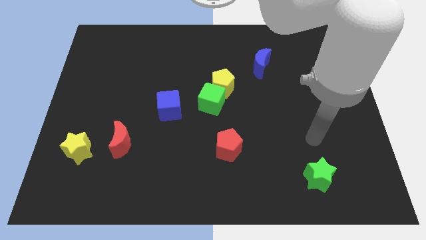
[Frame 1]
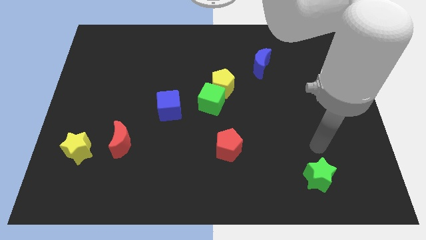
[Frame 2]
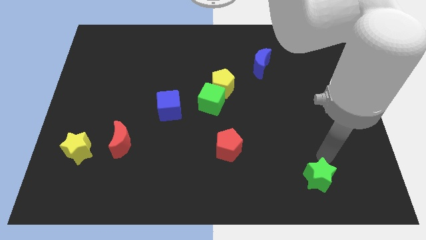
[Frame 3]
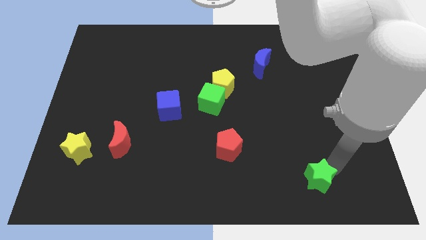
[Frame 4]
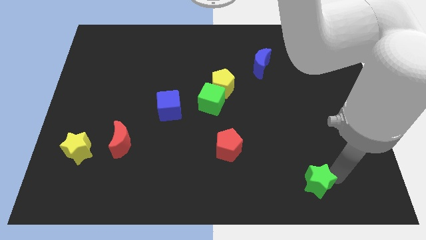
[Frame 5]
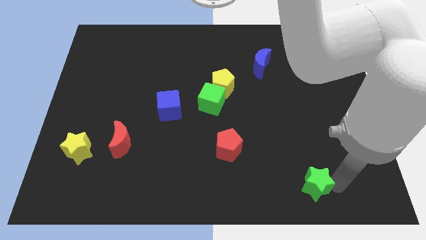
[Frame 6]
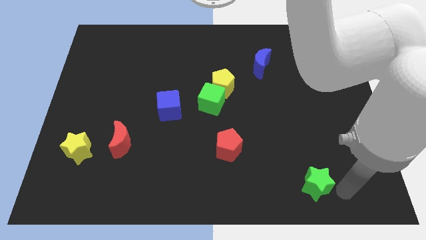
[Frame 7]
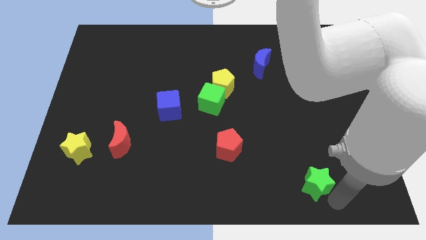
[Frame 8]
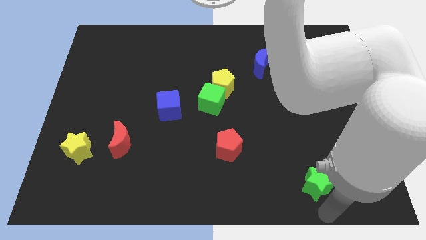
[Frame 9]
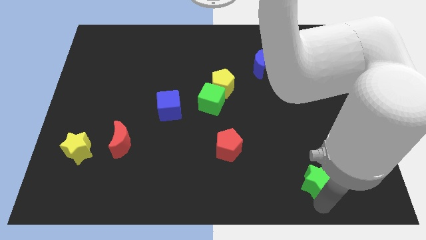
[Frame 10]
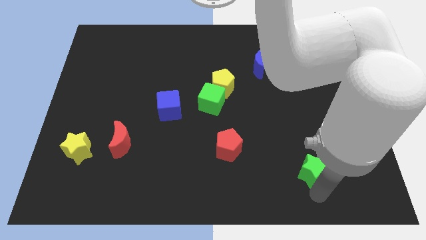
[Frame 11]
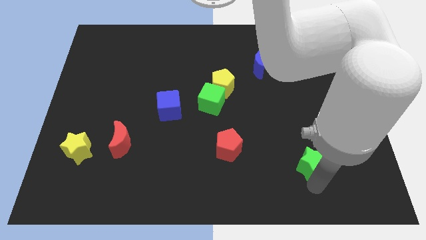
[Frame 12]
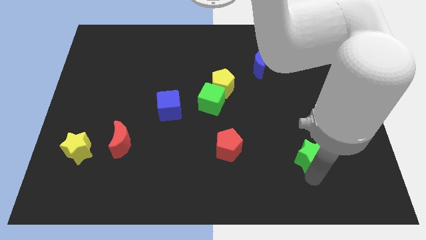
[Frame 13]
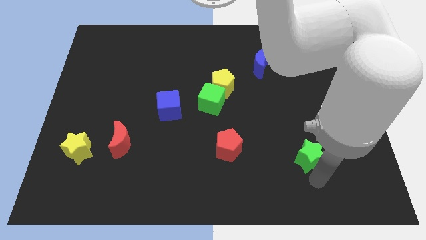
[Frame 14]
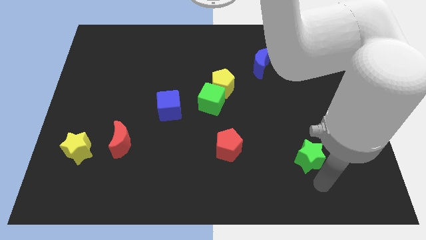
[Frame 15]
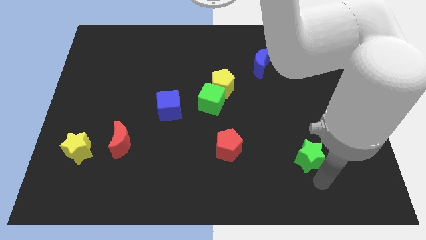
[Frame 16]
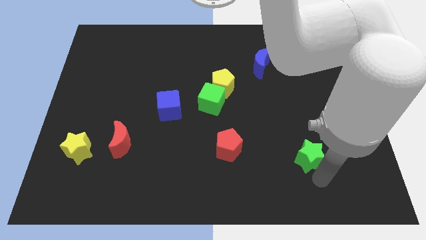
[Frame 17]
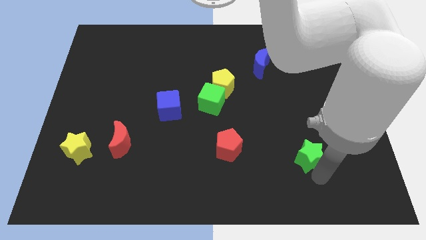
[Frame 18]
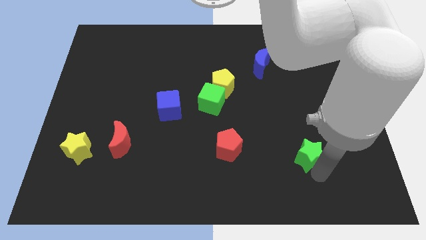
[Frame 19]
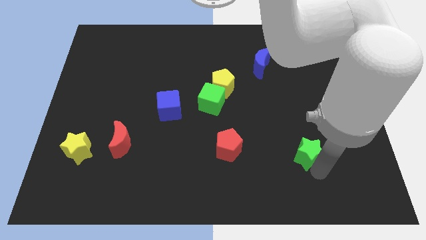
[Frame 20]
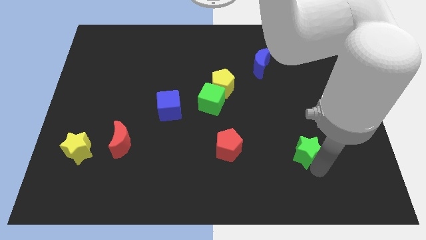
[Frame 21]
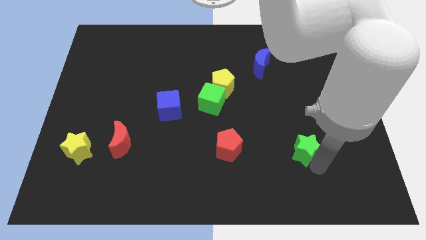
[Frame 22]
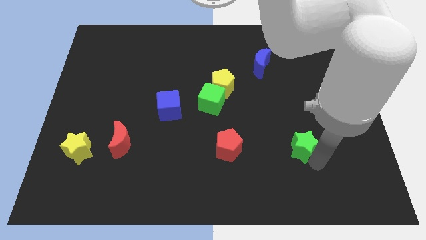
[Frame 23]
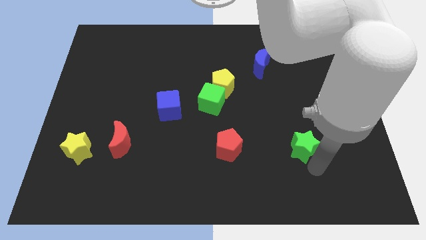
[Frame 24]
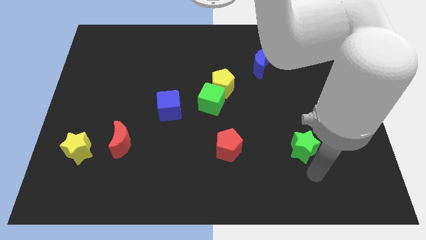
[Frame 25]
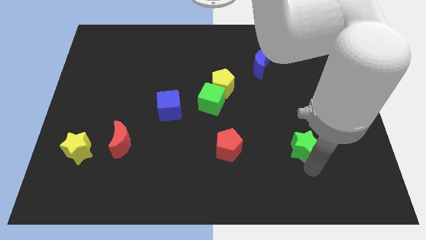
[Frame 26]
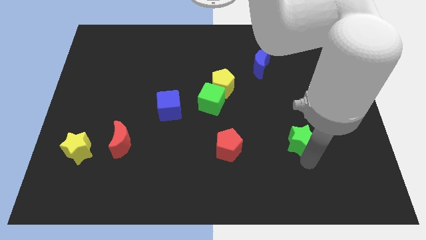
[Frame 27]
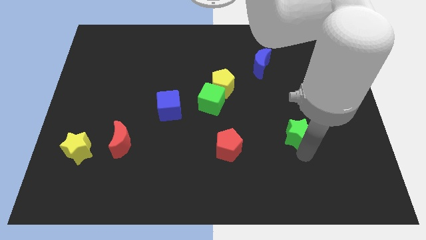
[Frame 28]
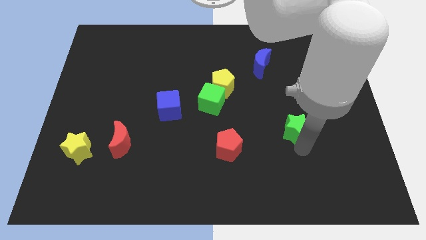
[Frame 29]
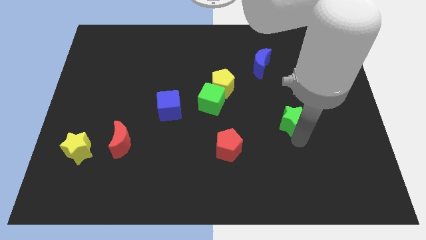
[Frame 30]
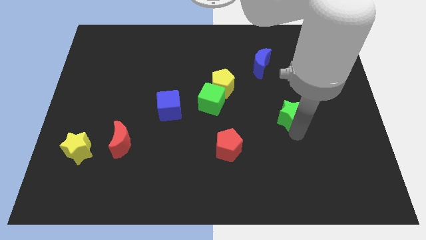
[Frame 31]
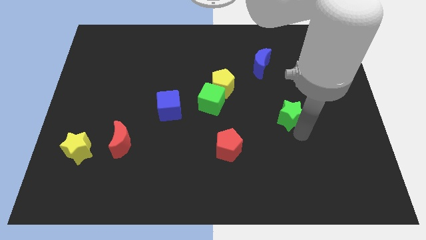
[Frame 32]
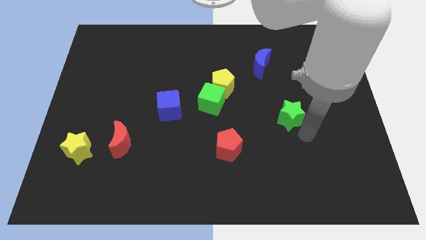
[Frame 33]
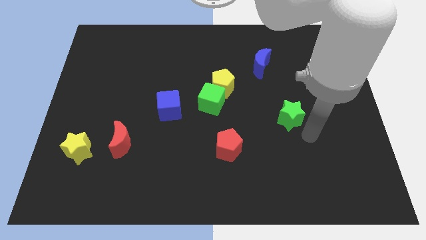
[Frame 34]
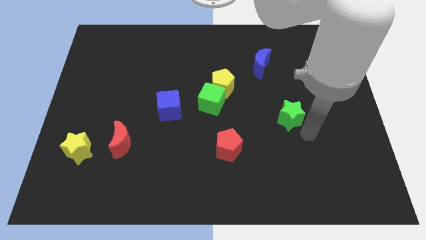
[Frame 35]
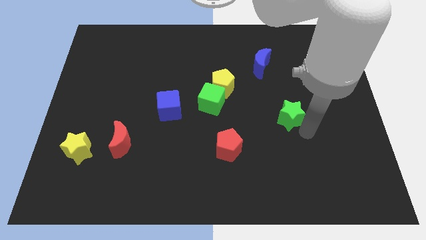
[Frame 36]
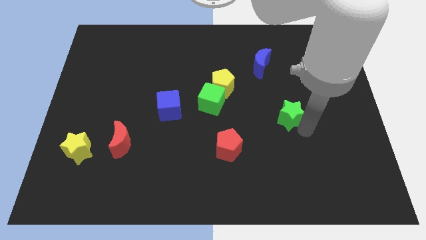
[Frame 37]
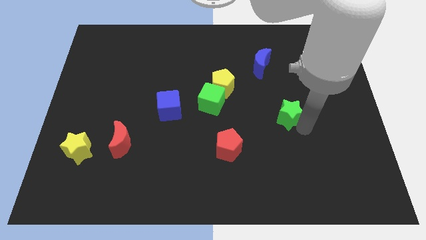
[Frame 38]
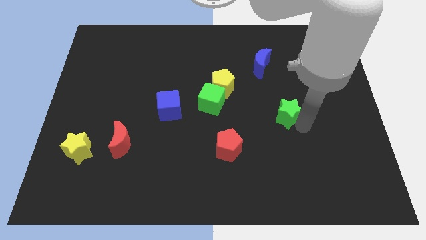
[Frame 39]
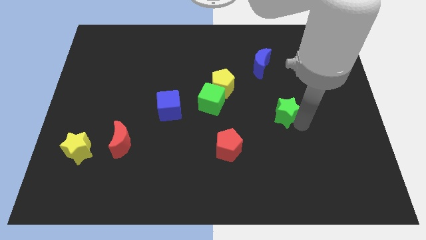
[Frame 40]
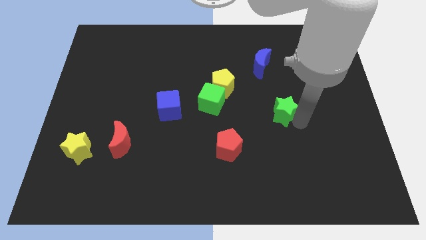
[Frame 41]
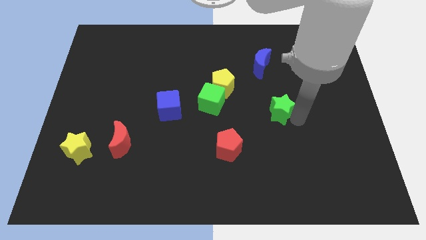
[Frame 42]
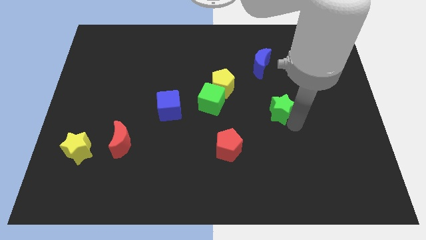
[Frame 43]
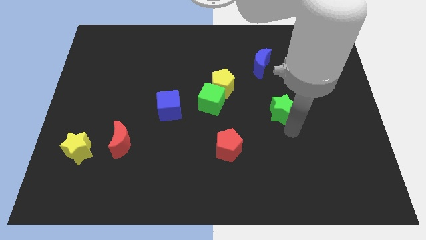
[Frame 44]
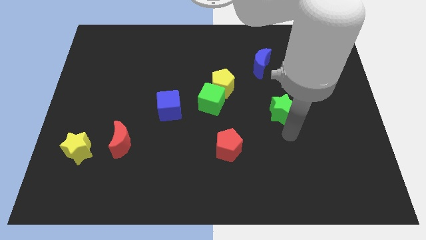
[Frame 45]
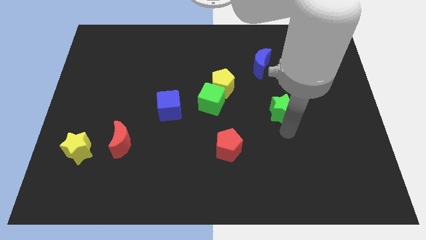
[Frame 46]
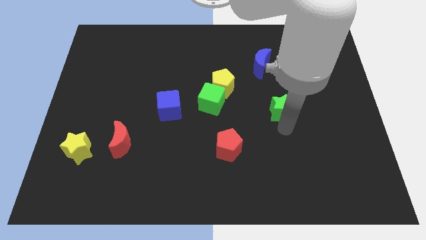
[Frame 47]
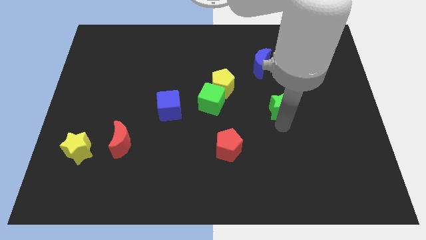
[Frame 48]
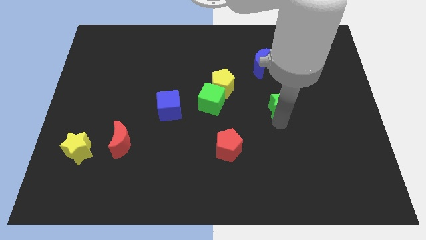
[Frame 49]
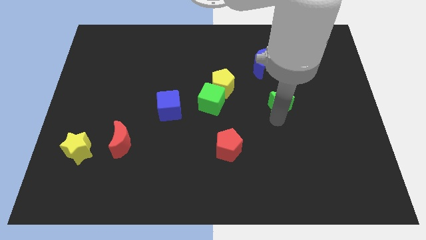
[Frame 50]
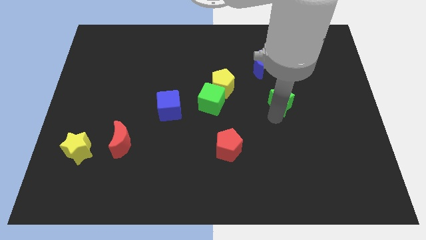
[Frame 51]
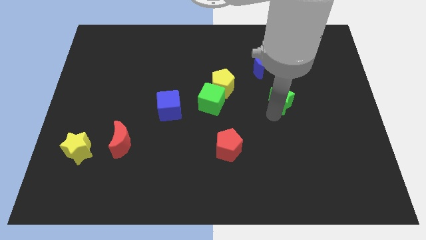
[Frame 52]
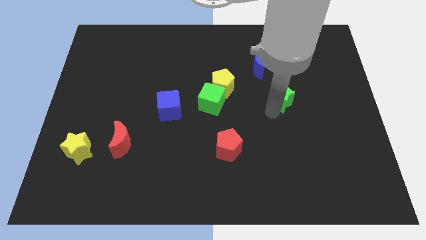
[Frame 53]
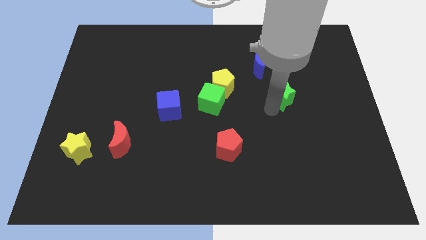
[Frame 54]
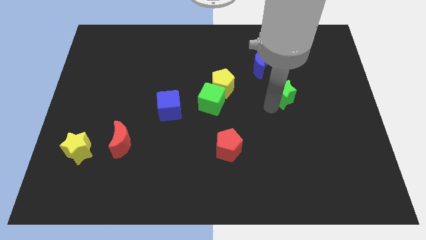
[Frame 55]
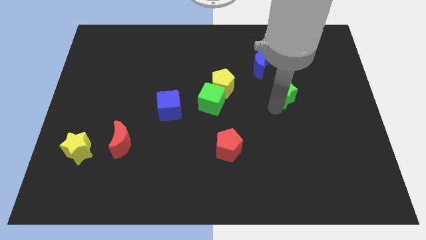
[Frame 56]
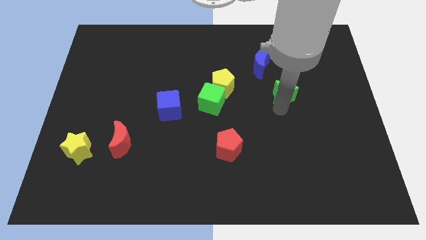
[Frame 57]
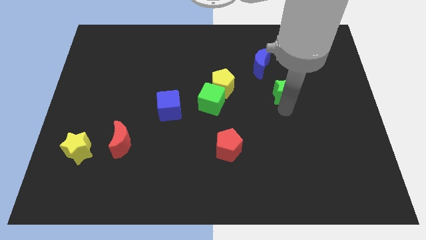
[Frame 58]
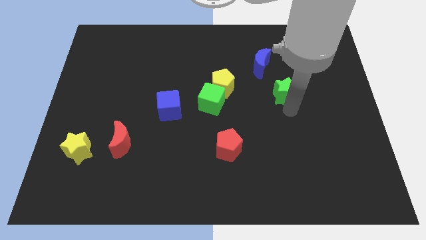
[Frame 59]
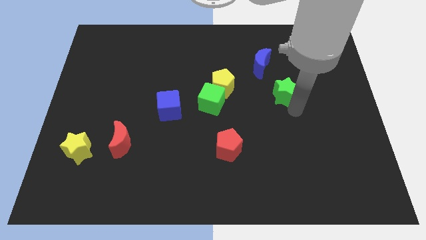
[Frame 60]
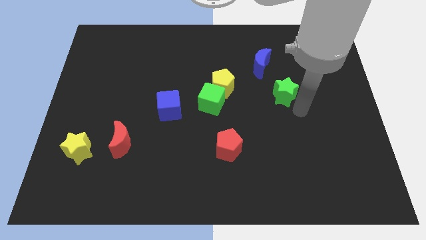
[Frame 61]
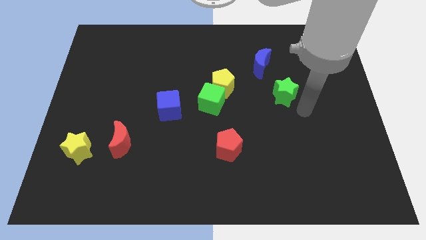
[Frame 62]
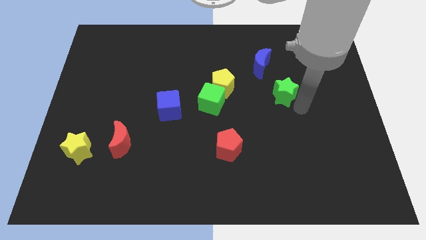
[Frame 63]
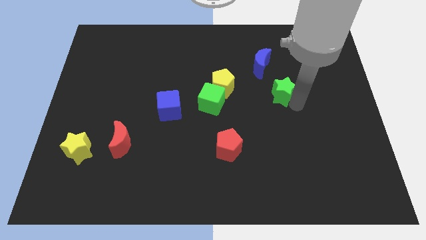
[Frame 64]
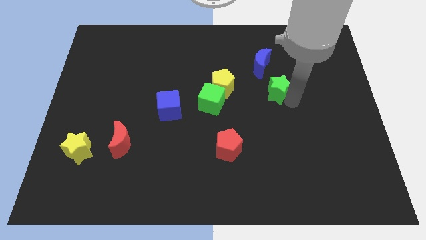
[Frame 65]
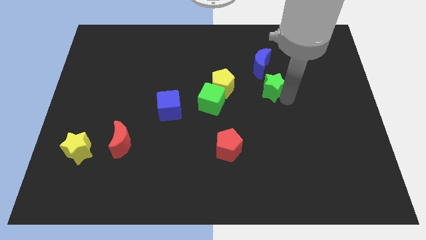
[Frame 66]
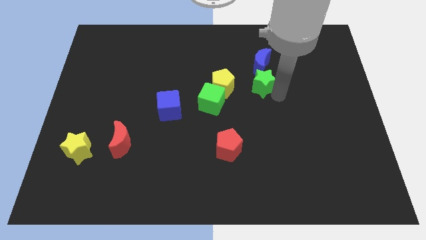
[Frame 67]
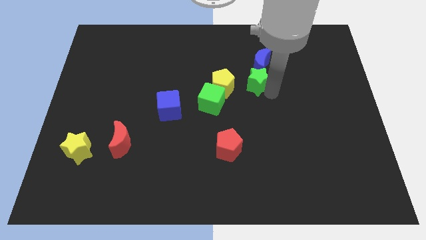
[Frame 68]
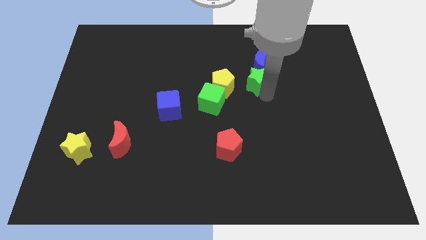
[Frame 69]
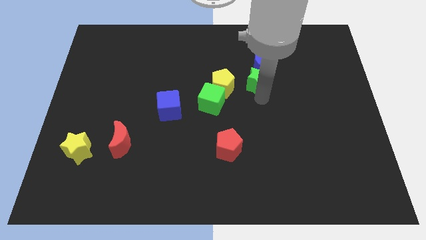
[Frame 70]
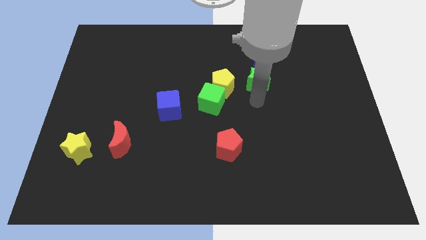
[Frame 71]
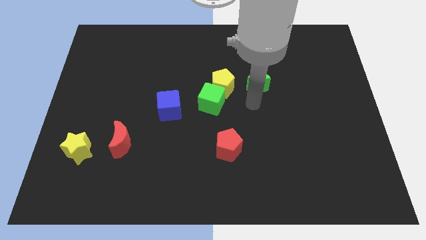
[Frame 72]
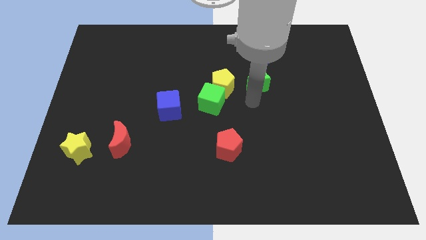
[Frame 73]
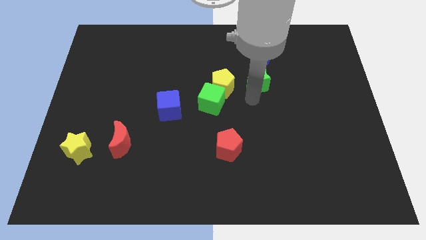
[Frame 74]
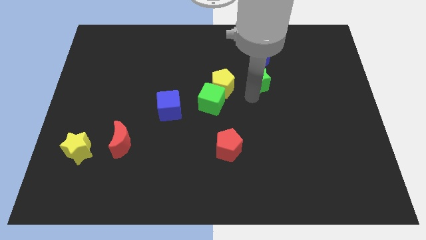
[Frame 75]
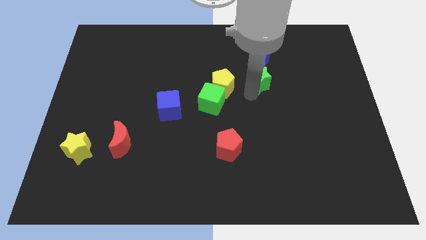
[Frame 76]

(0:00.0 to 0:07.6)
put the green star to the blue moon

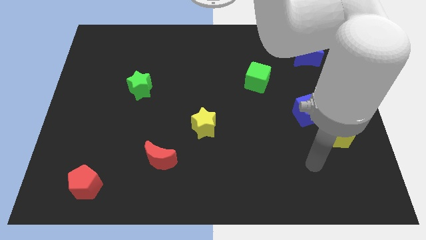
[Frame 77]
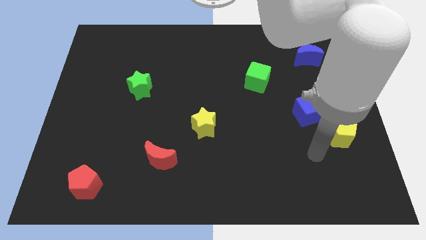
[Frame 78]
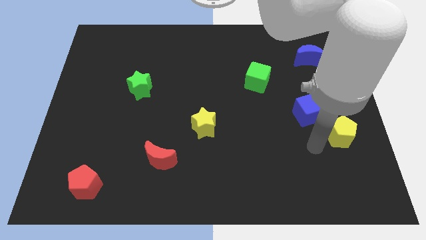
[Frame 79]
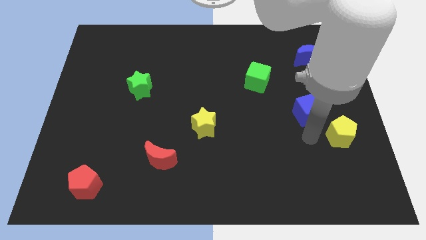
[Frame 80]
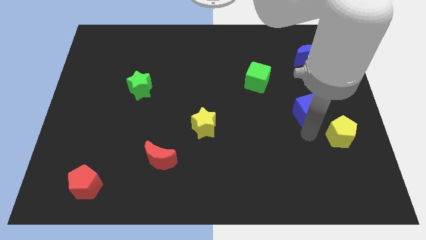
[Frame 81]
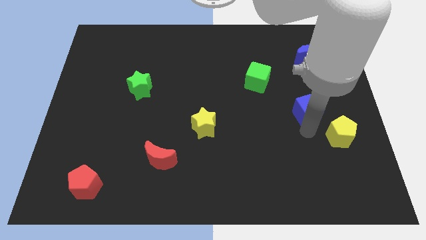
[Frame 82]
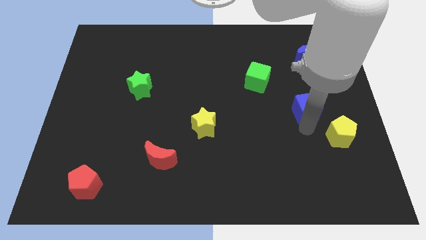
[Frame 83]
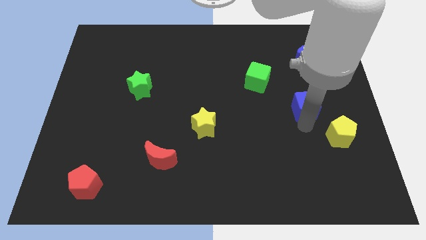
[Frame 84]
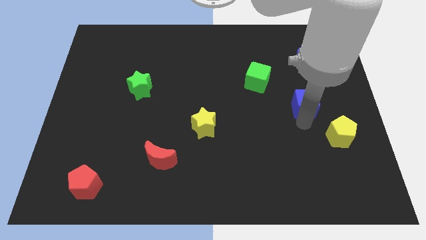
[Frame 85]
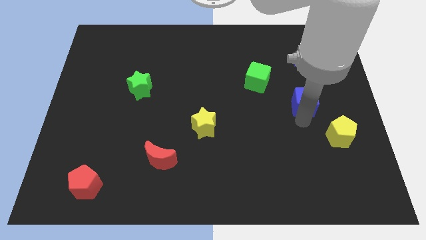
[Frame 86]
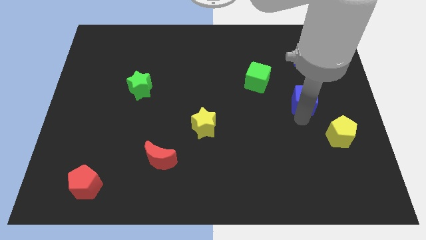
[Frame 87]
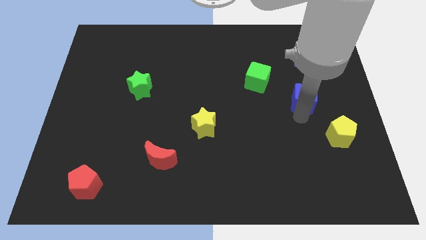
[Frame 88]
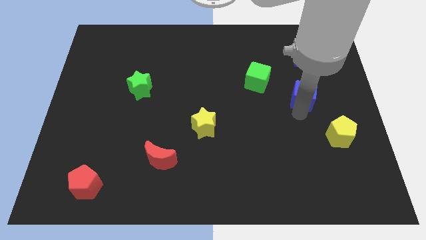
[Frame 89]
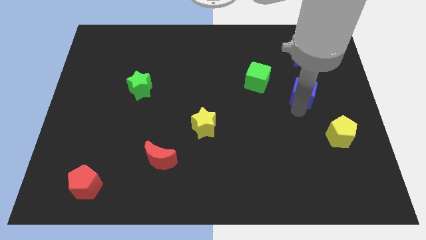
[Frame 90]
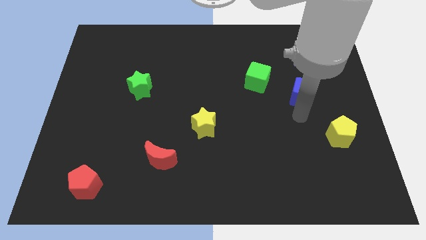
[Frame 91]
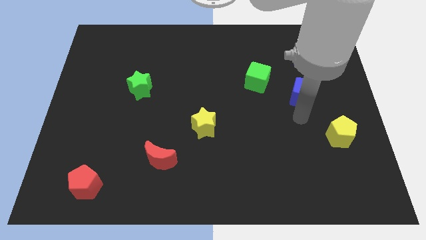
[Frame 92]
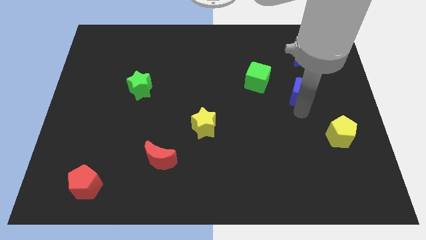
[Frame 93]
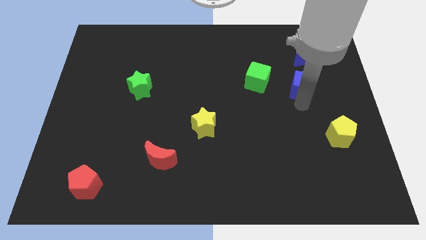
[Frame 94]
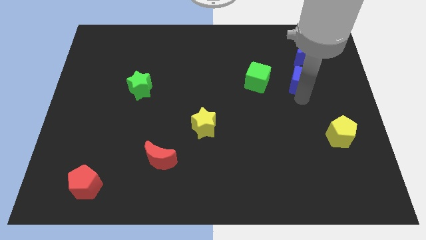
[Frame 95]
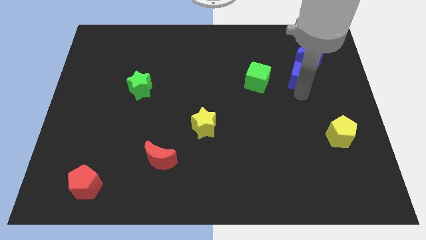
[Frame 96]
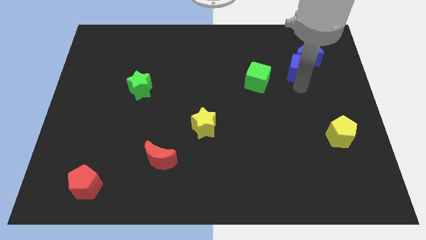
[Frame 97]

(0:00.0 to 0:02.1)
push the blue cube next to the blue moon
